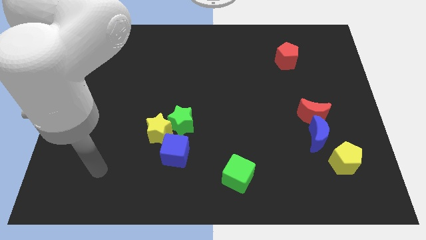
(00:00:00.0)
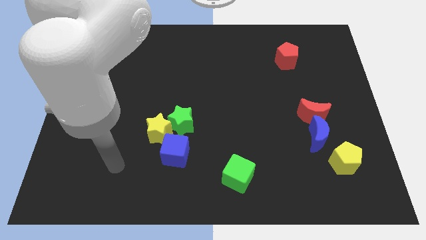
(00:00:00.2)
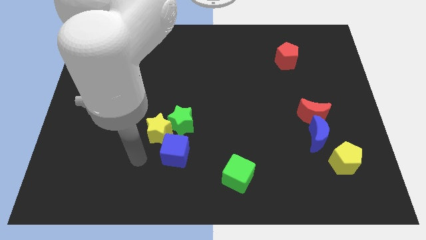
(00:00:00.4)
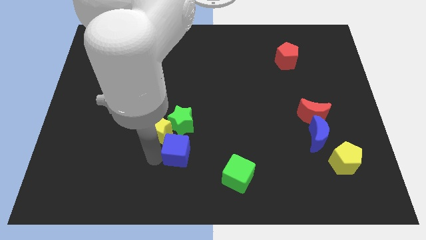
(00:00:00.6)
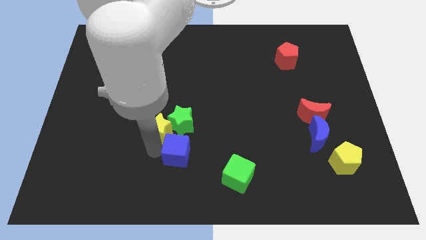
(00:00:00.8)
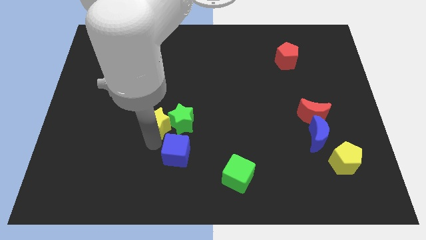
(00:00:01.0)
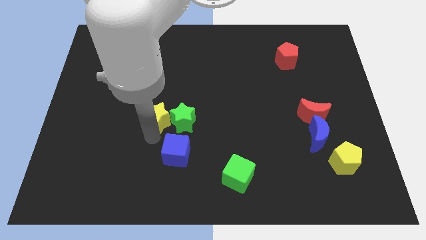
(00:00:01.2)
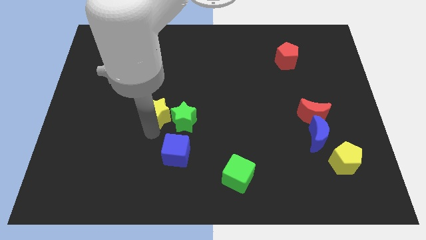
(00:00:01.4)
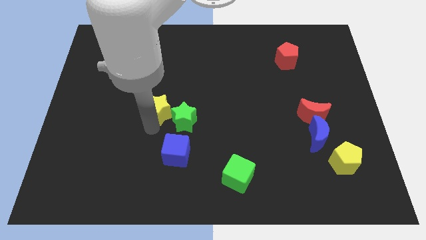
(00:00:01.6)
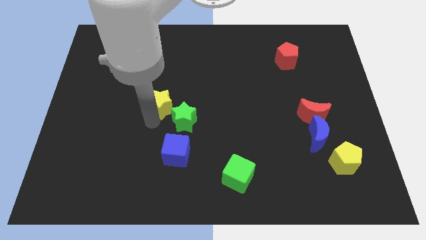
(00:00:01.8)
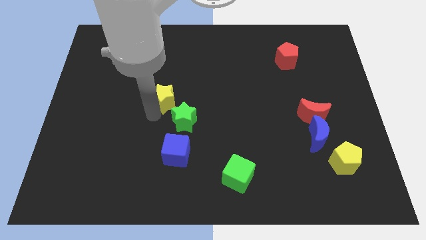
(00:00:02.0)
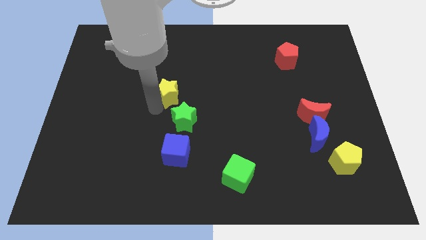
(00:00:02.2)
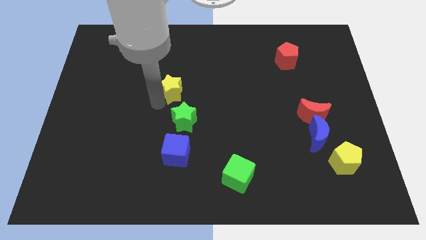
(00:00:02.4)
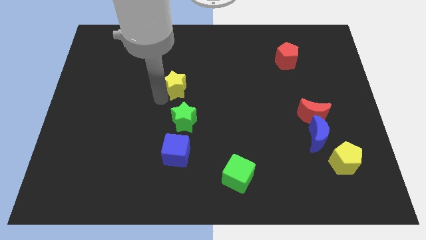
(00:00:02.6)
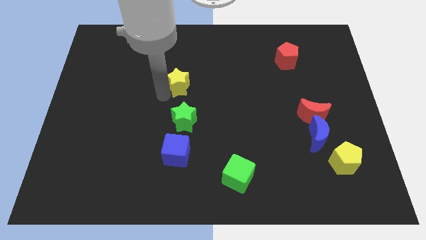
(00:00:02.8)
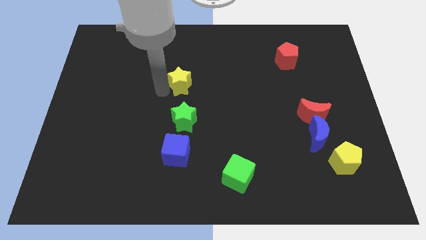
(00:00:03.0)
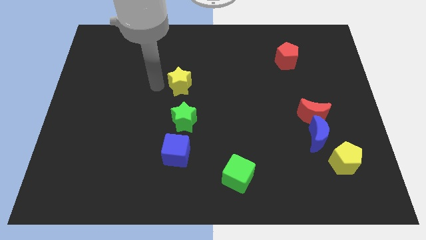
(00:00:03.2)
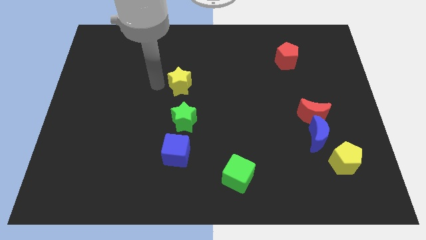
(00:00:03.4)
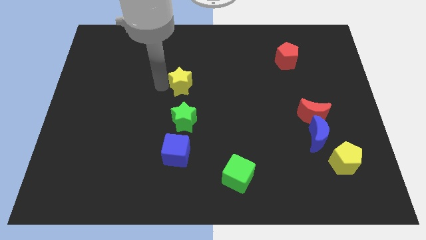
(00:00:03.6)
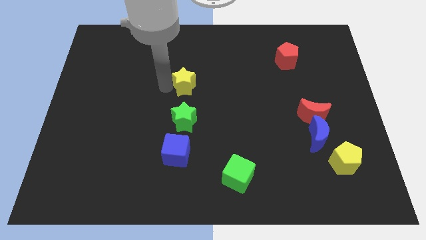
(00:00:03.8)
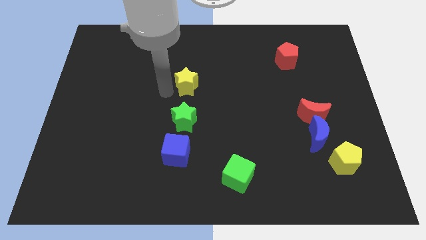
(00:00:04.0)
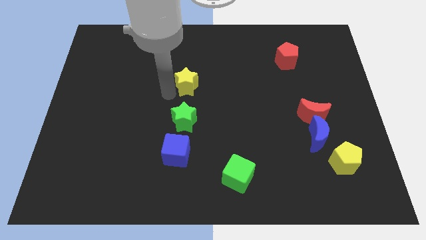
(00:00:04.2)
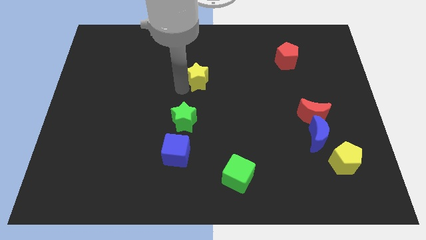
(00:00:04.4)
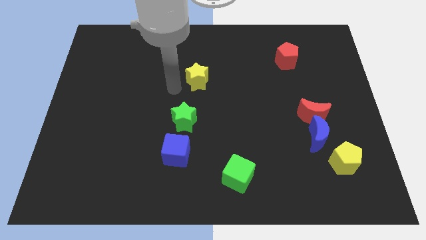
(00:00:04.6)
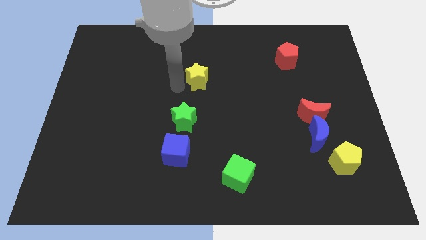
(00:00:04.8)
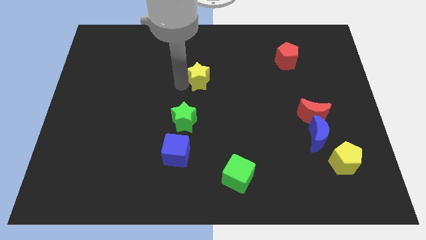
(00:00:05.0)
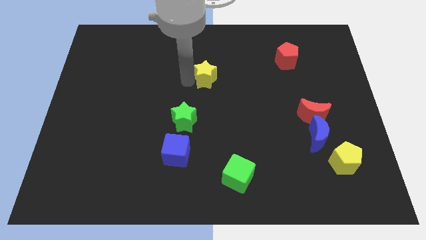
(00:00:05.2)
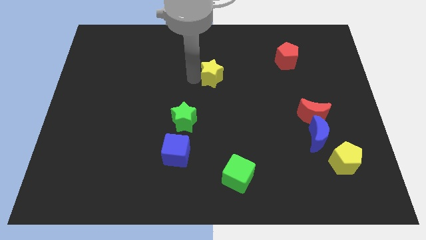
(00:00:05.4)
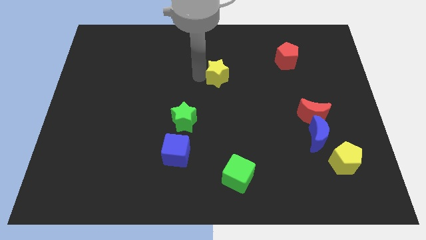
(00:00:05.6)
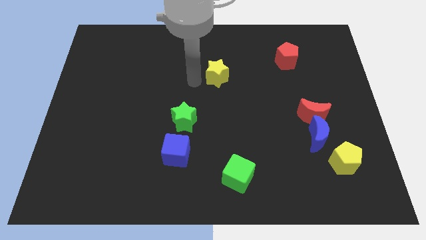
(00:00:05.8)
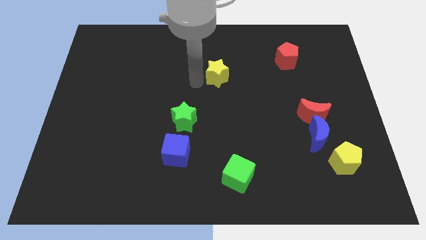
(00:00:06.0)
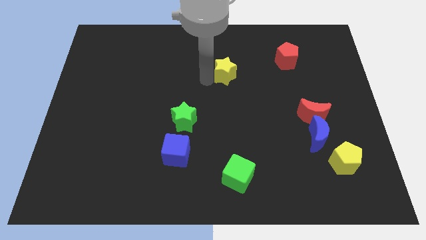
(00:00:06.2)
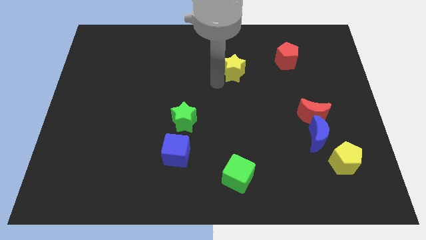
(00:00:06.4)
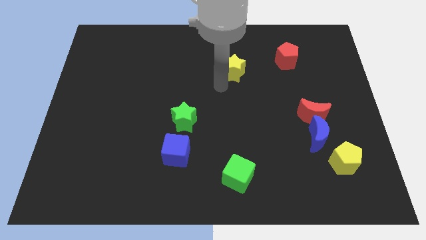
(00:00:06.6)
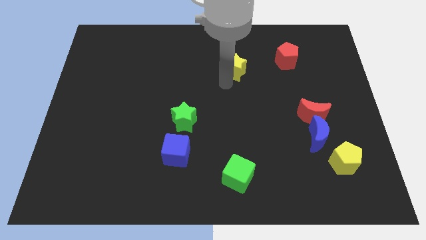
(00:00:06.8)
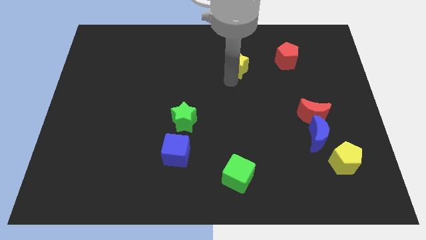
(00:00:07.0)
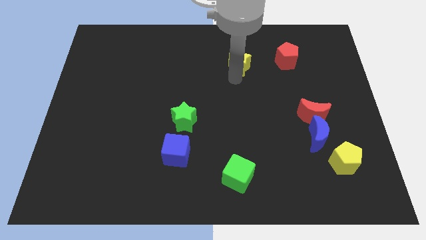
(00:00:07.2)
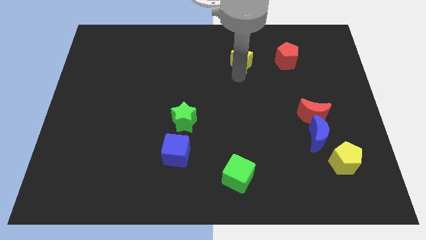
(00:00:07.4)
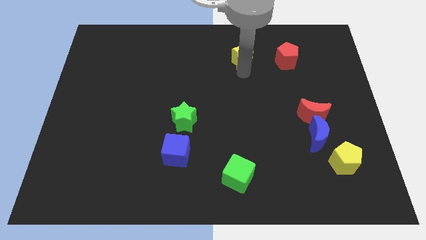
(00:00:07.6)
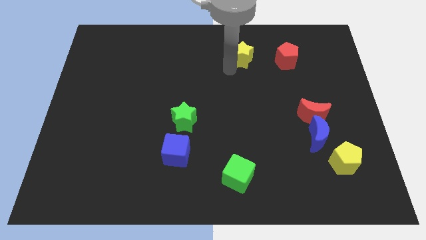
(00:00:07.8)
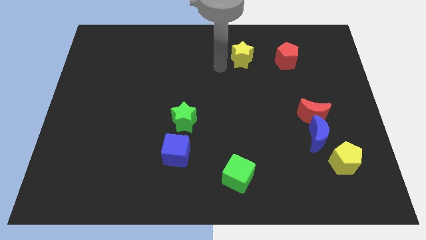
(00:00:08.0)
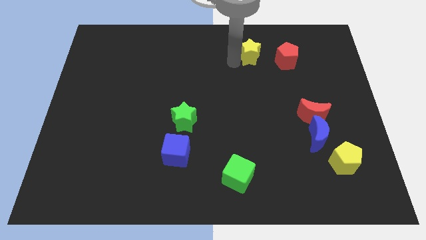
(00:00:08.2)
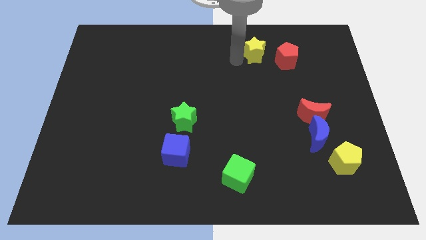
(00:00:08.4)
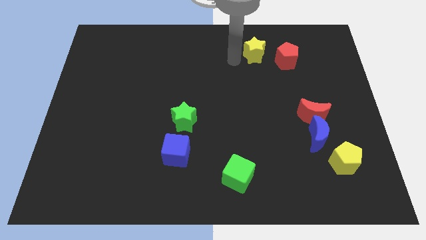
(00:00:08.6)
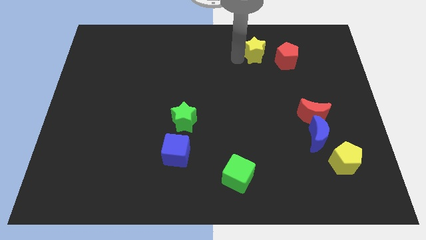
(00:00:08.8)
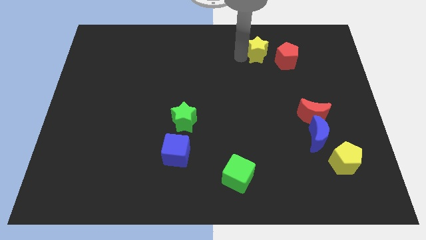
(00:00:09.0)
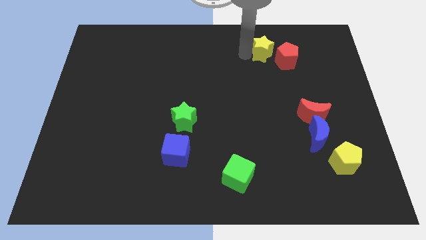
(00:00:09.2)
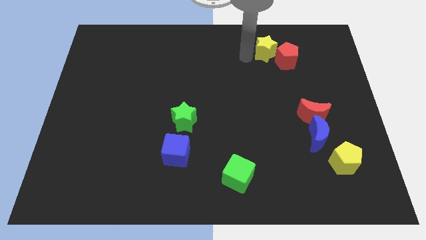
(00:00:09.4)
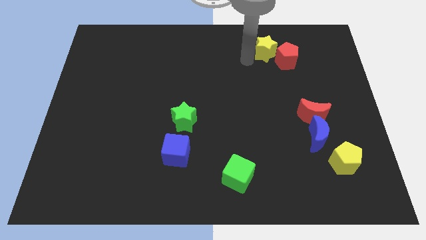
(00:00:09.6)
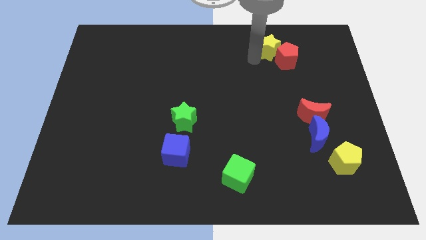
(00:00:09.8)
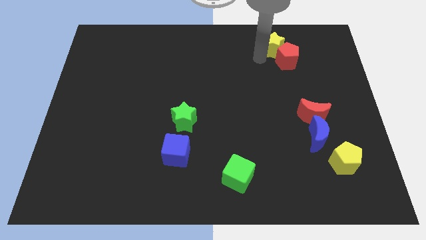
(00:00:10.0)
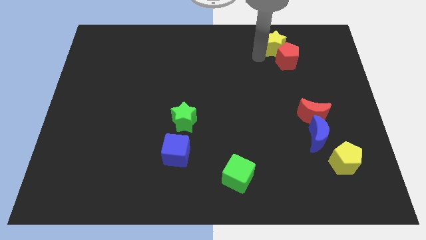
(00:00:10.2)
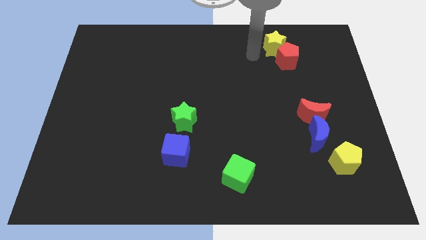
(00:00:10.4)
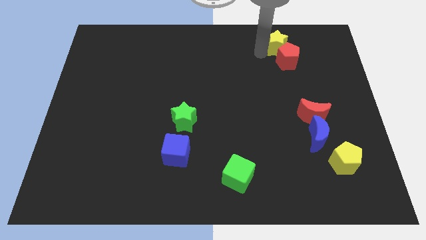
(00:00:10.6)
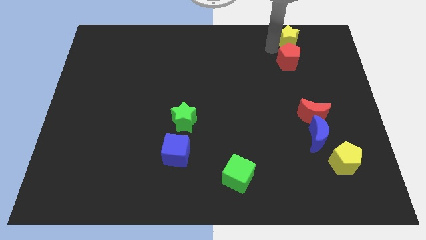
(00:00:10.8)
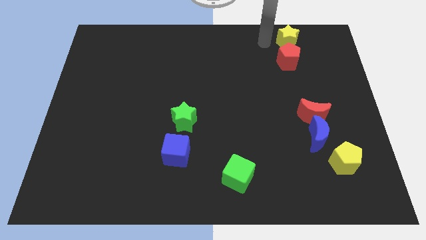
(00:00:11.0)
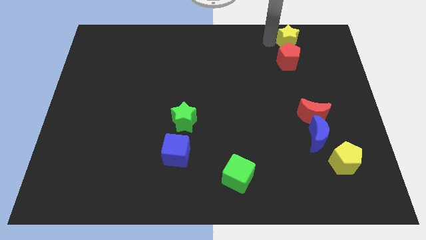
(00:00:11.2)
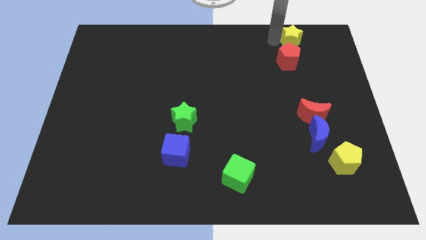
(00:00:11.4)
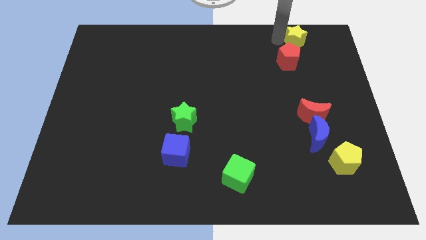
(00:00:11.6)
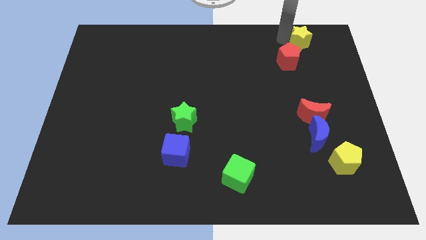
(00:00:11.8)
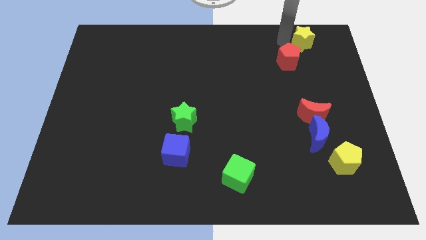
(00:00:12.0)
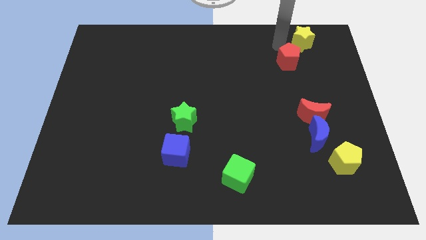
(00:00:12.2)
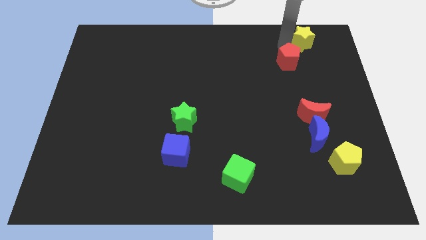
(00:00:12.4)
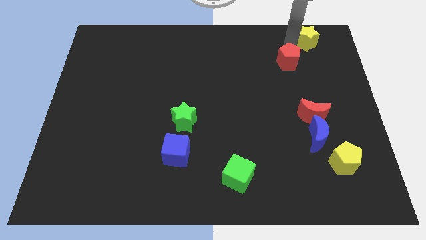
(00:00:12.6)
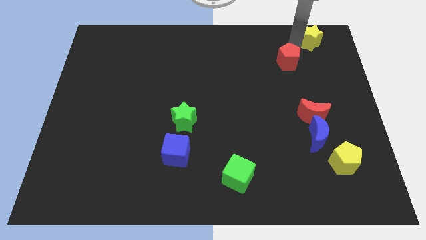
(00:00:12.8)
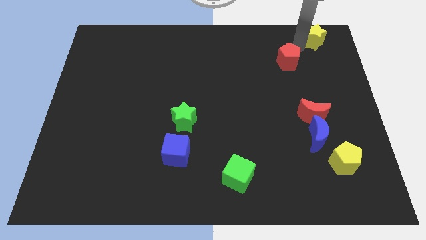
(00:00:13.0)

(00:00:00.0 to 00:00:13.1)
slide the yellow star to the top right of the board

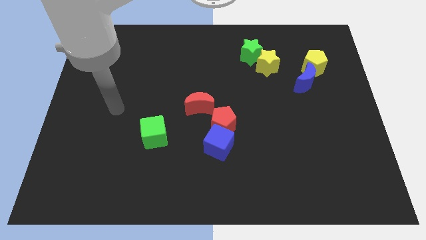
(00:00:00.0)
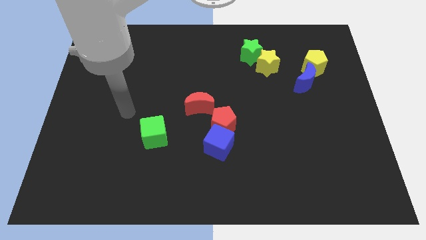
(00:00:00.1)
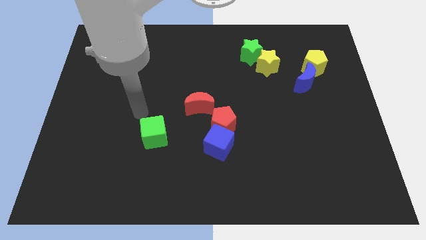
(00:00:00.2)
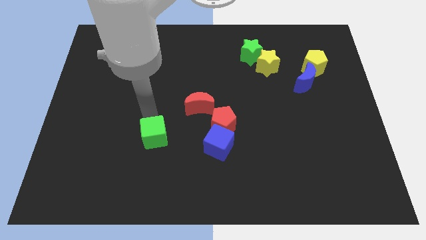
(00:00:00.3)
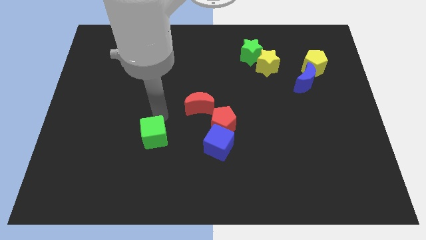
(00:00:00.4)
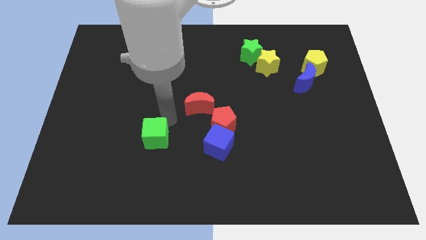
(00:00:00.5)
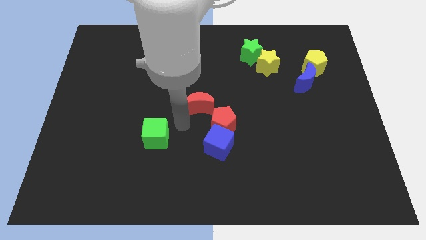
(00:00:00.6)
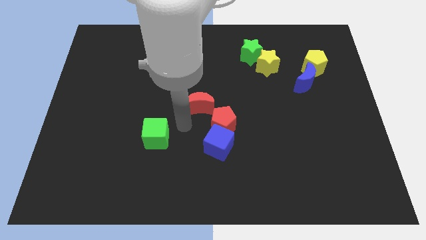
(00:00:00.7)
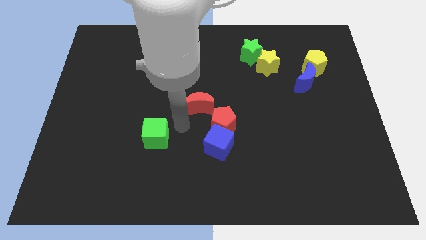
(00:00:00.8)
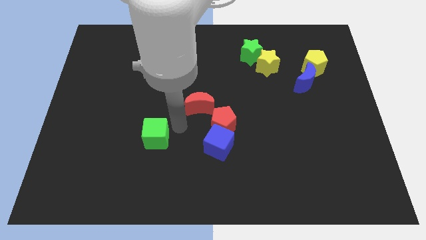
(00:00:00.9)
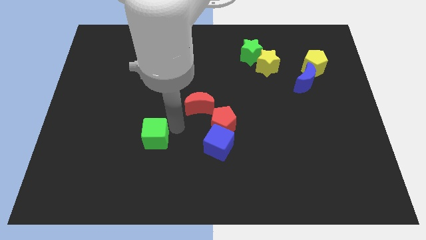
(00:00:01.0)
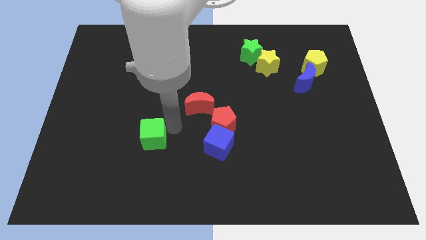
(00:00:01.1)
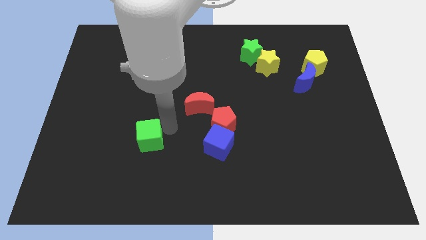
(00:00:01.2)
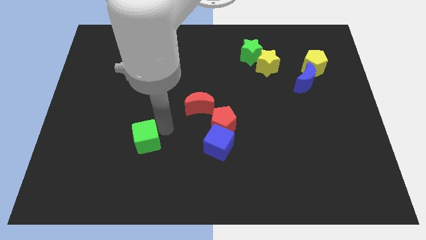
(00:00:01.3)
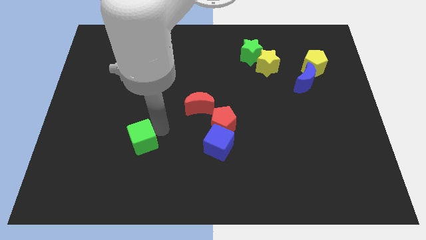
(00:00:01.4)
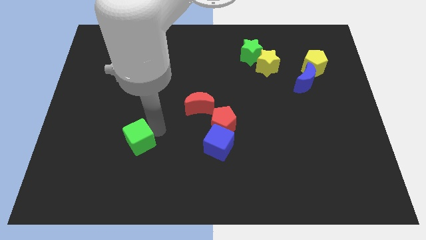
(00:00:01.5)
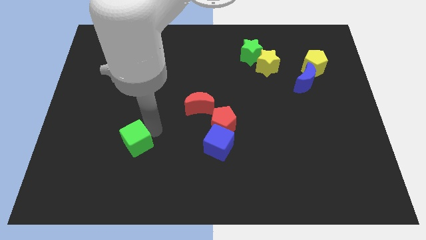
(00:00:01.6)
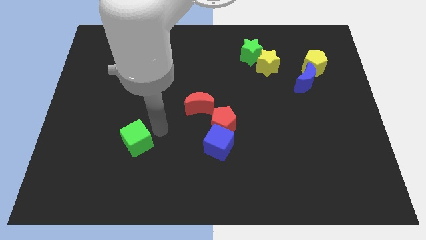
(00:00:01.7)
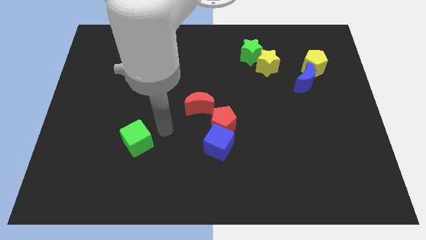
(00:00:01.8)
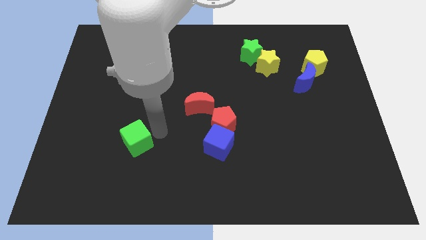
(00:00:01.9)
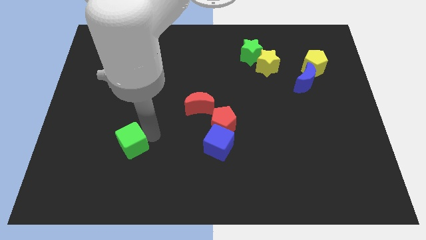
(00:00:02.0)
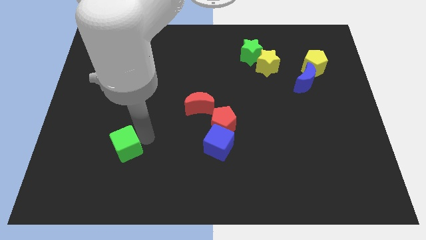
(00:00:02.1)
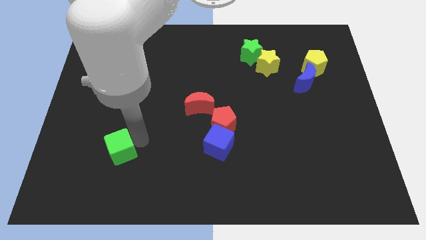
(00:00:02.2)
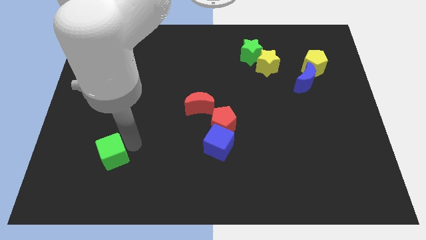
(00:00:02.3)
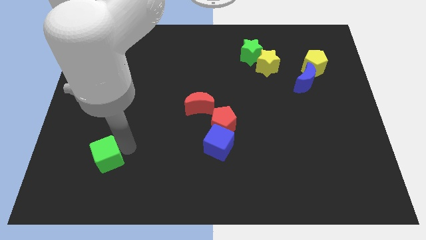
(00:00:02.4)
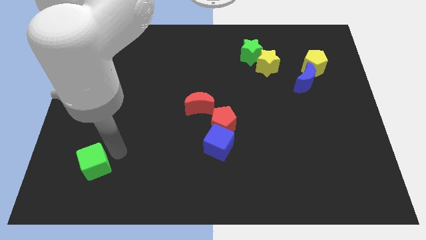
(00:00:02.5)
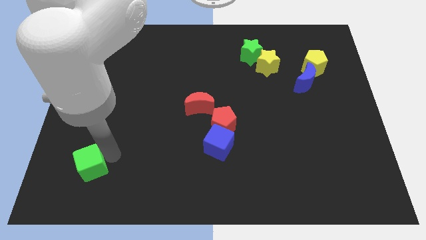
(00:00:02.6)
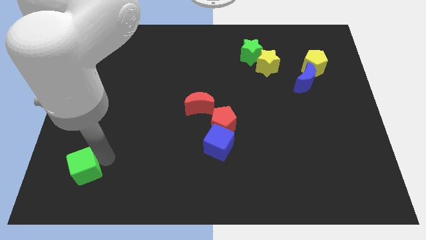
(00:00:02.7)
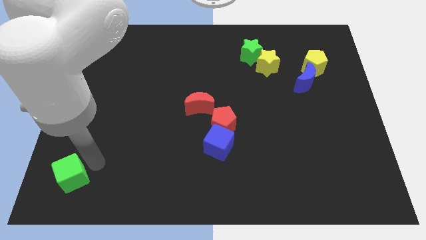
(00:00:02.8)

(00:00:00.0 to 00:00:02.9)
slide the green cube to the bottom left corner
